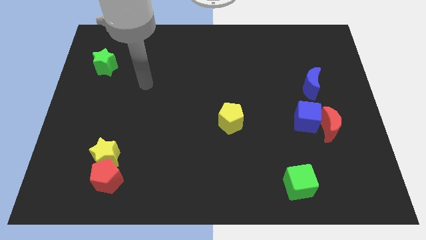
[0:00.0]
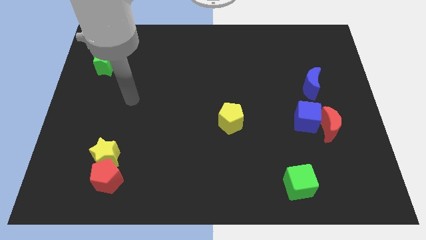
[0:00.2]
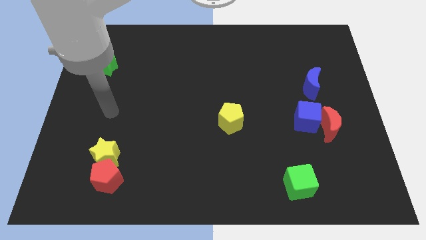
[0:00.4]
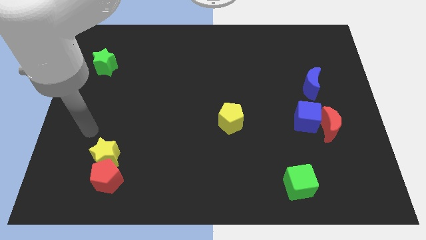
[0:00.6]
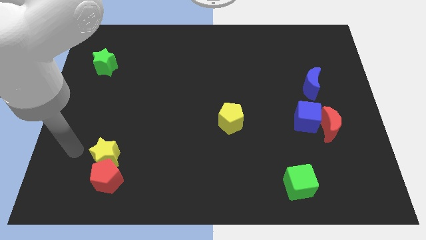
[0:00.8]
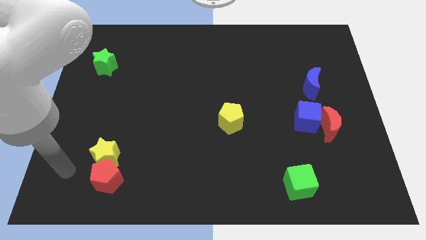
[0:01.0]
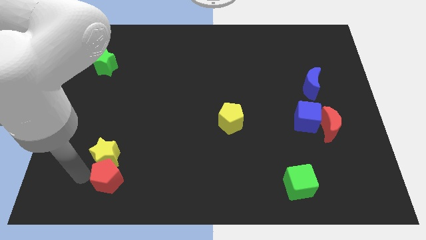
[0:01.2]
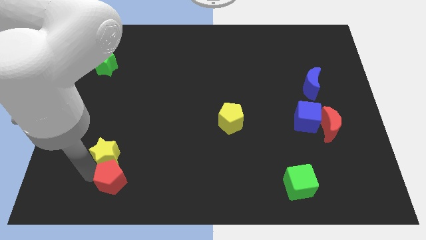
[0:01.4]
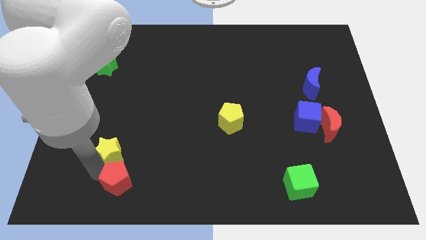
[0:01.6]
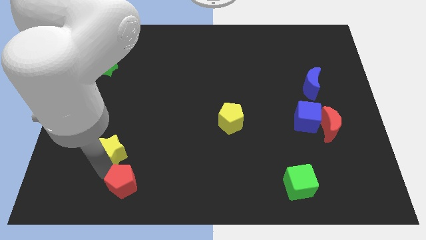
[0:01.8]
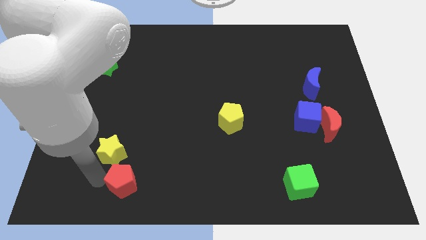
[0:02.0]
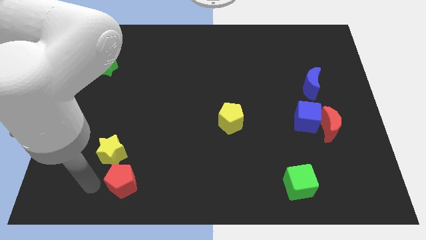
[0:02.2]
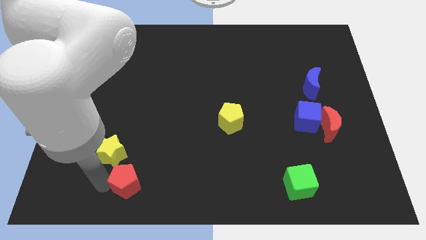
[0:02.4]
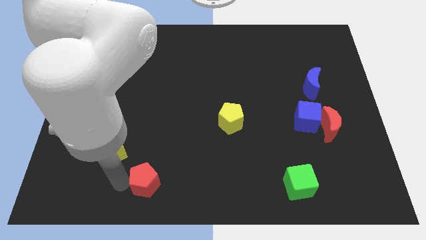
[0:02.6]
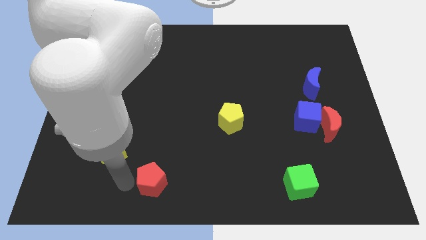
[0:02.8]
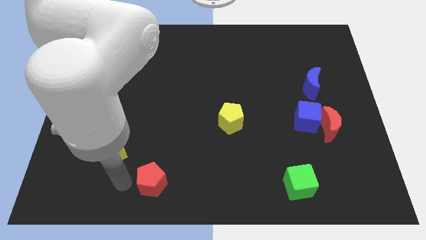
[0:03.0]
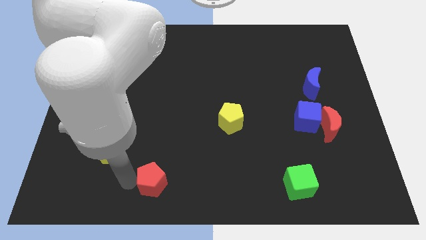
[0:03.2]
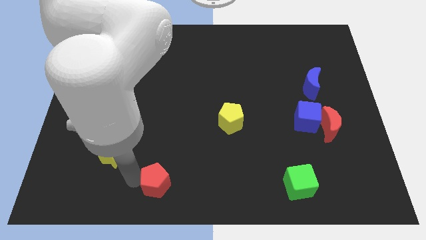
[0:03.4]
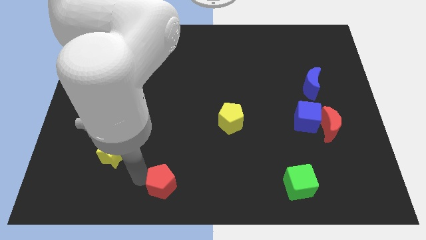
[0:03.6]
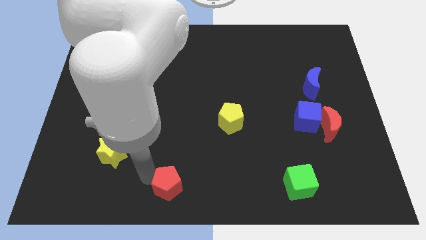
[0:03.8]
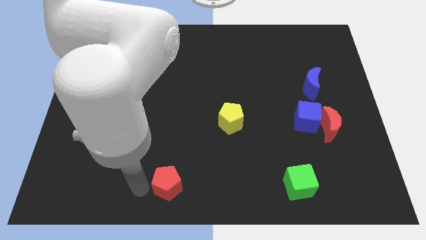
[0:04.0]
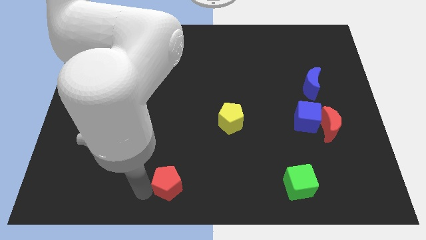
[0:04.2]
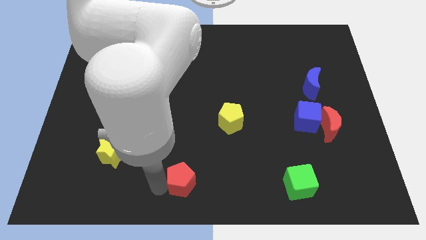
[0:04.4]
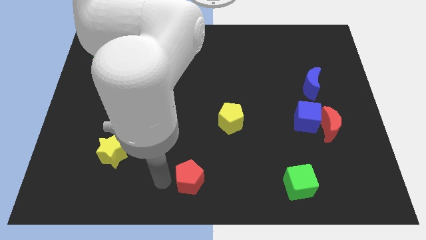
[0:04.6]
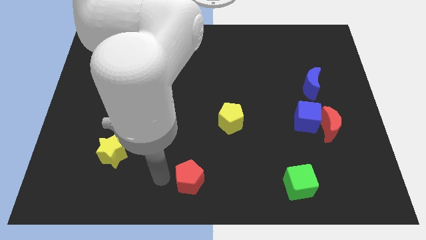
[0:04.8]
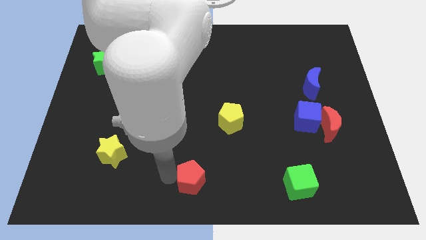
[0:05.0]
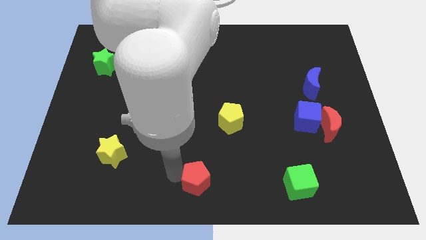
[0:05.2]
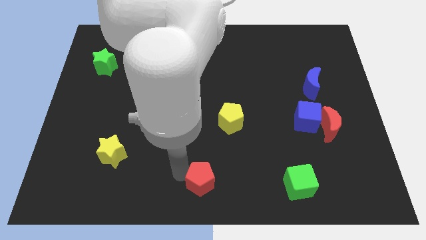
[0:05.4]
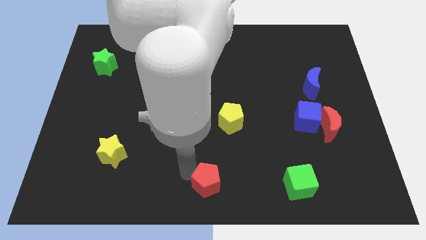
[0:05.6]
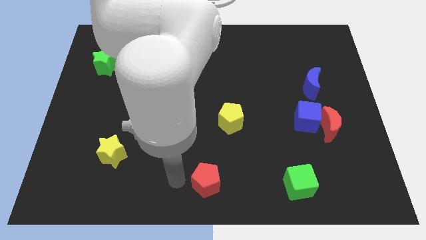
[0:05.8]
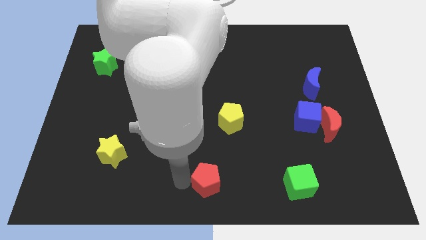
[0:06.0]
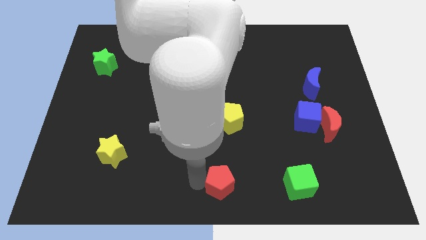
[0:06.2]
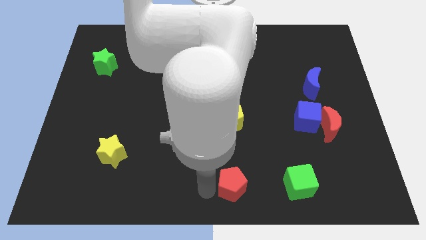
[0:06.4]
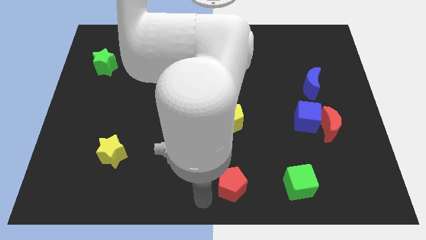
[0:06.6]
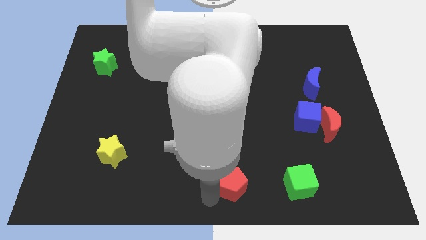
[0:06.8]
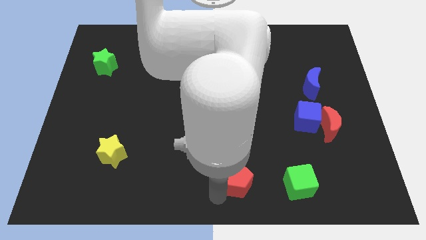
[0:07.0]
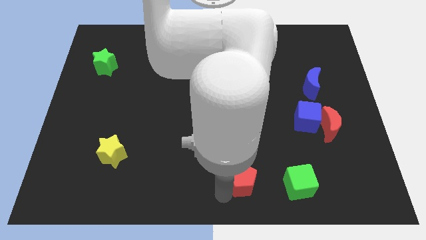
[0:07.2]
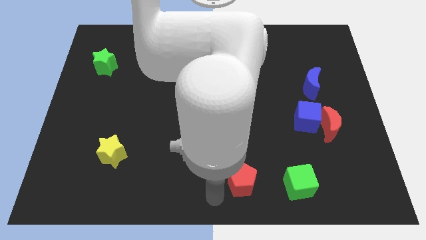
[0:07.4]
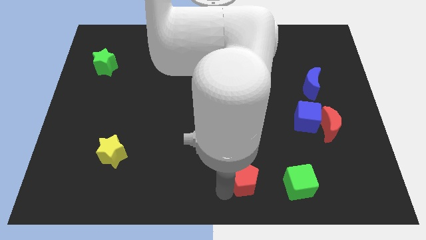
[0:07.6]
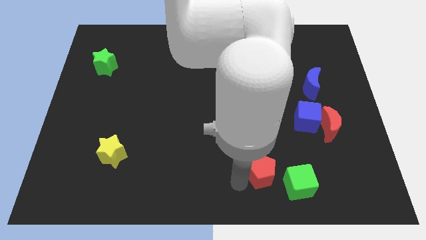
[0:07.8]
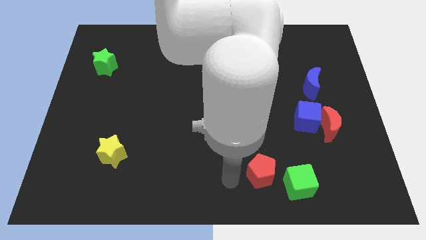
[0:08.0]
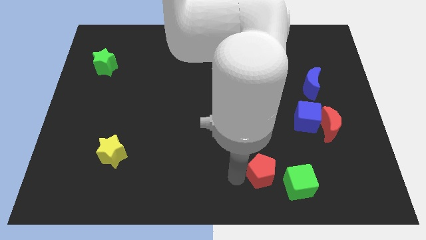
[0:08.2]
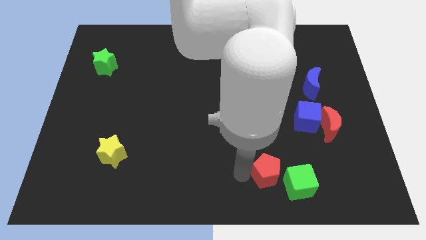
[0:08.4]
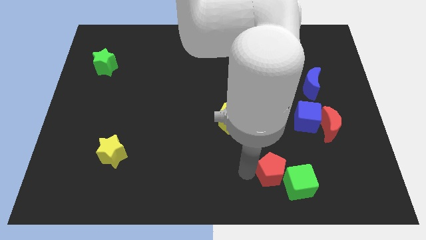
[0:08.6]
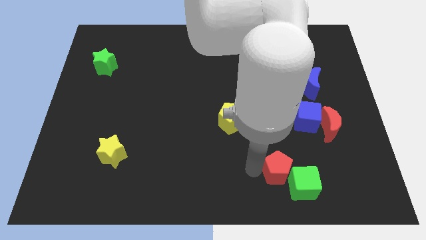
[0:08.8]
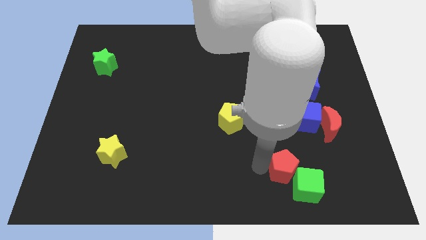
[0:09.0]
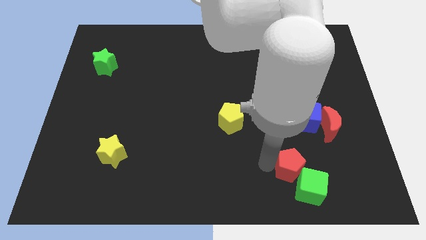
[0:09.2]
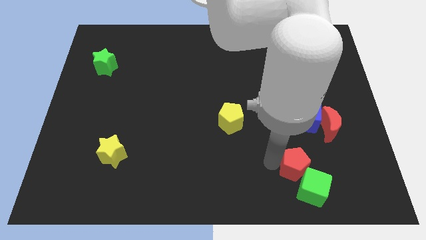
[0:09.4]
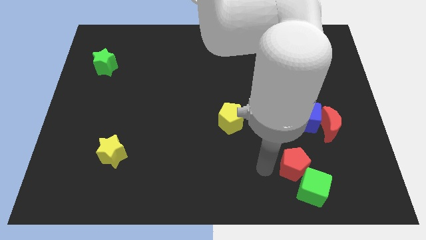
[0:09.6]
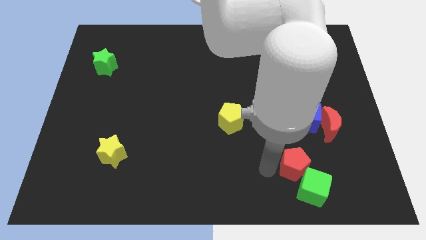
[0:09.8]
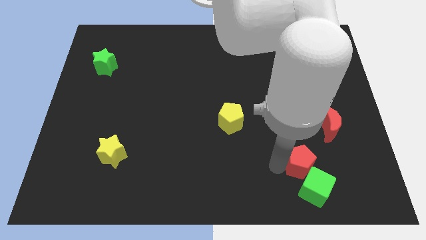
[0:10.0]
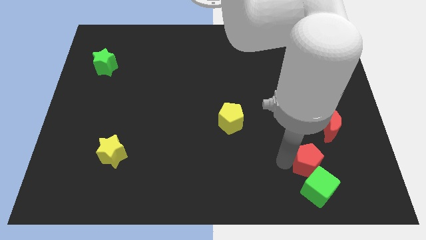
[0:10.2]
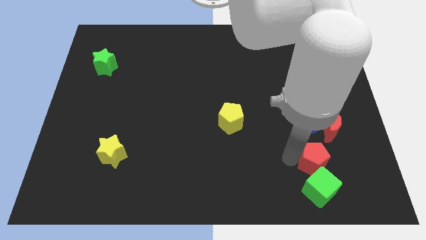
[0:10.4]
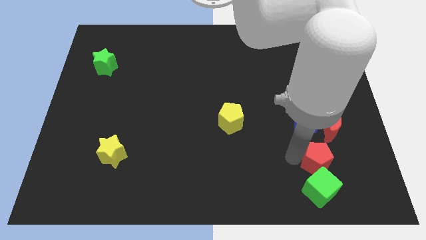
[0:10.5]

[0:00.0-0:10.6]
put the red pentagon below the red moon
